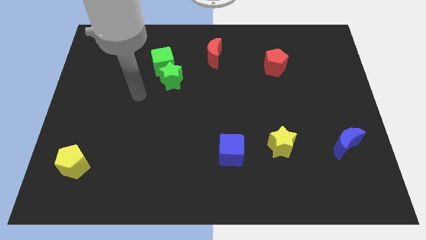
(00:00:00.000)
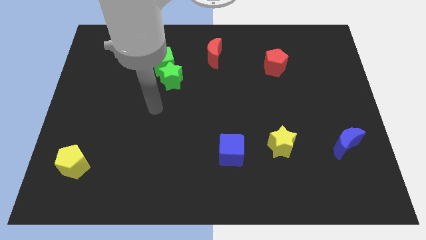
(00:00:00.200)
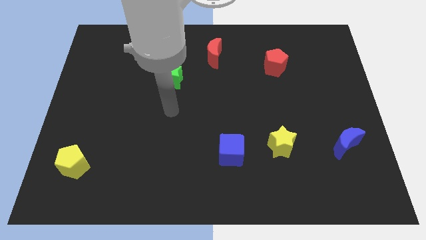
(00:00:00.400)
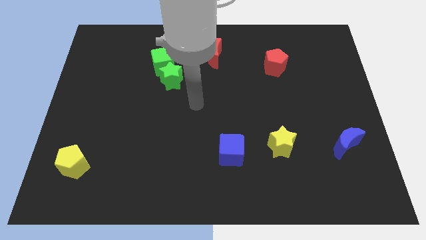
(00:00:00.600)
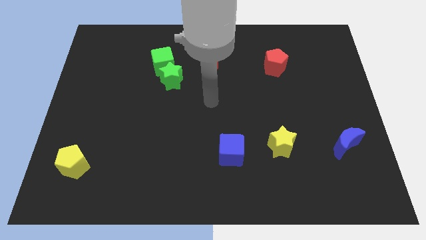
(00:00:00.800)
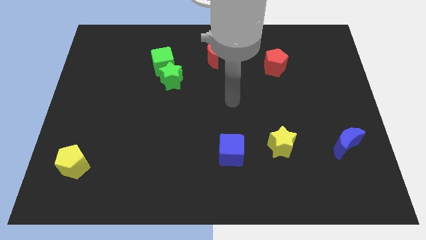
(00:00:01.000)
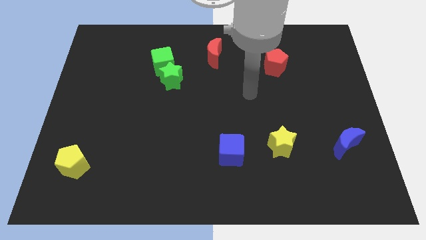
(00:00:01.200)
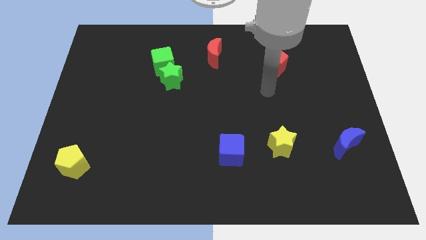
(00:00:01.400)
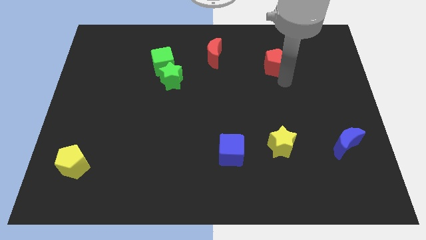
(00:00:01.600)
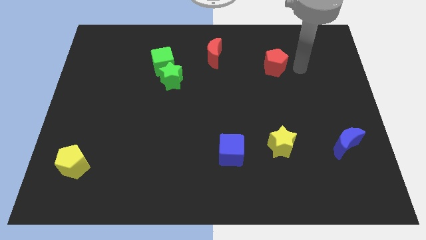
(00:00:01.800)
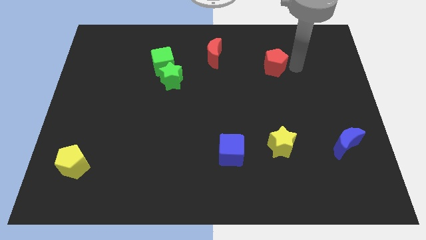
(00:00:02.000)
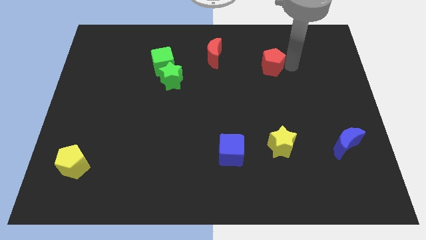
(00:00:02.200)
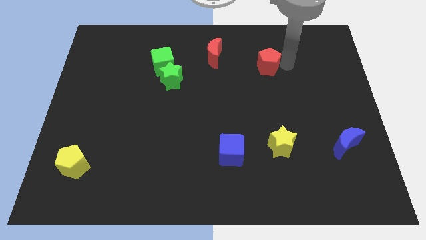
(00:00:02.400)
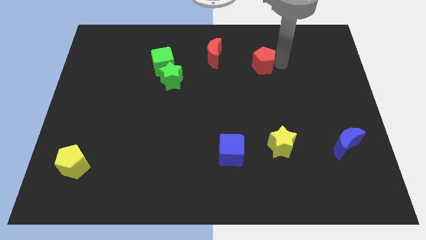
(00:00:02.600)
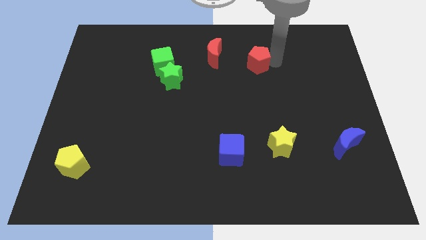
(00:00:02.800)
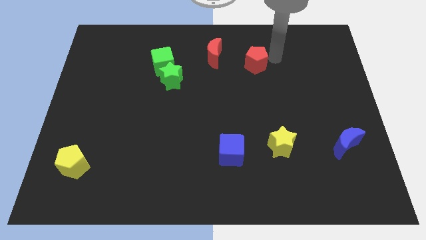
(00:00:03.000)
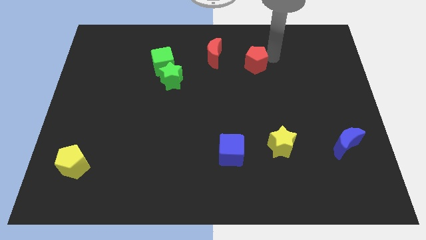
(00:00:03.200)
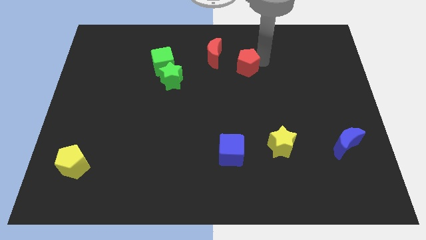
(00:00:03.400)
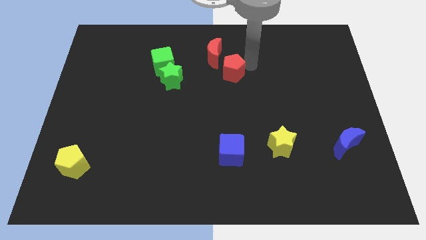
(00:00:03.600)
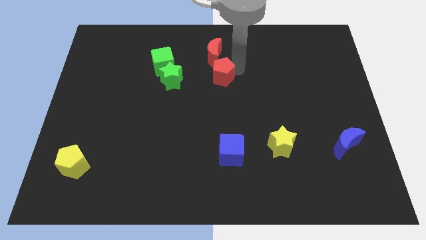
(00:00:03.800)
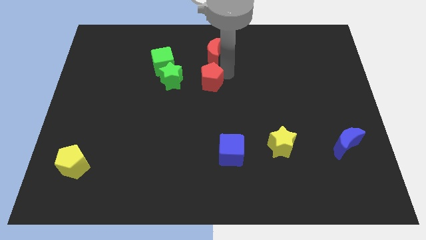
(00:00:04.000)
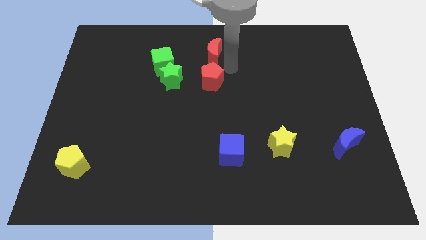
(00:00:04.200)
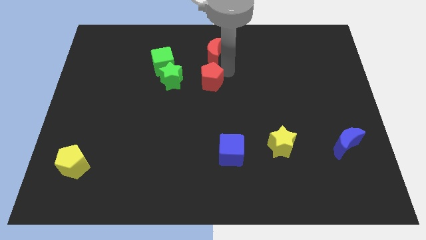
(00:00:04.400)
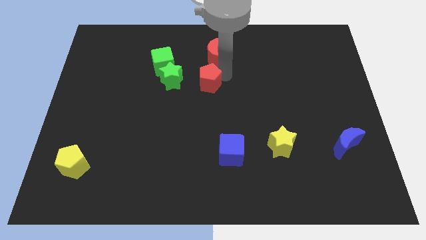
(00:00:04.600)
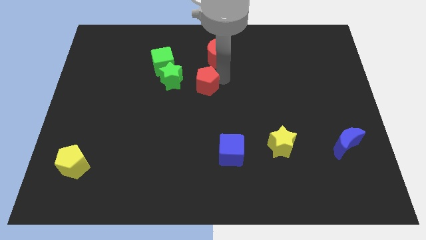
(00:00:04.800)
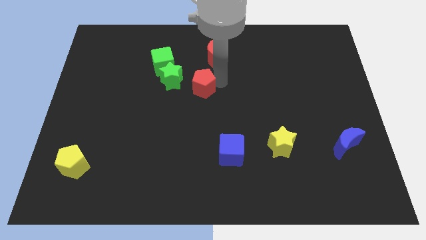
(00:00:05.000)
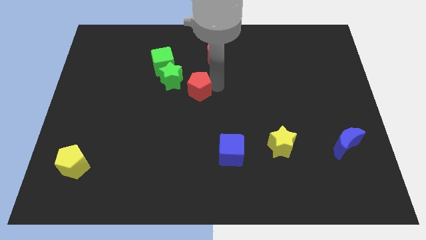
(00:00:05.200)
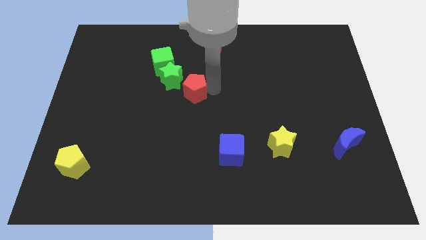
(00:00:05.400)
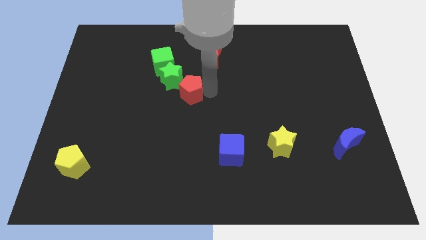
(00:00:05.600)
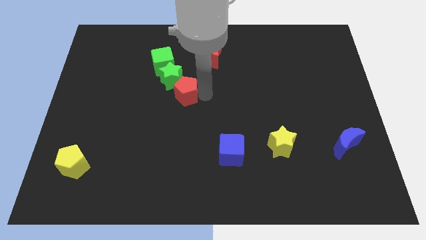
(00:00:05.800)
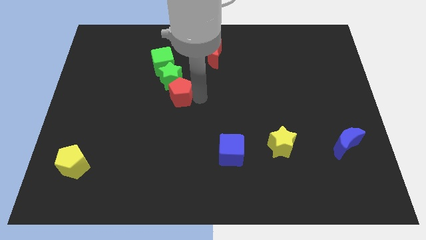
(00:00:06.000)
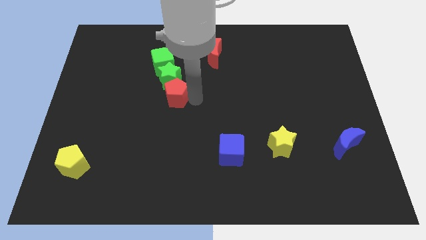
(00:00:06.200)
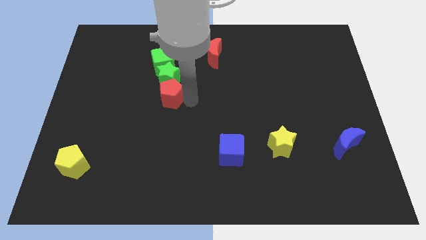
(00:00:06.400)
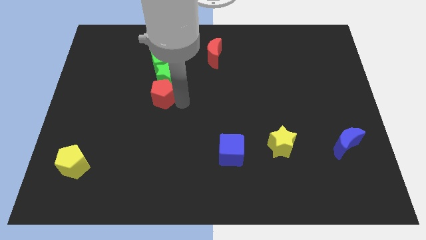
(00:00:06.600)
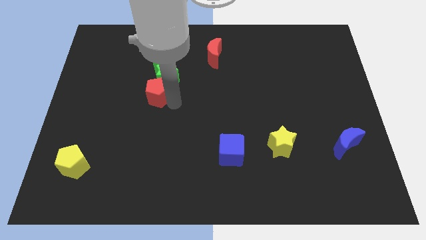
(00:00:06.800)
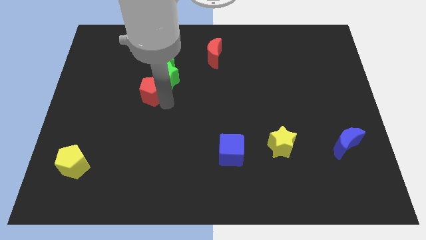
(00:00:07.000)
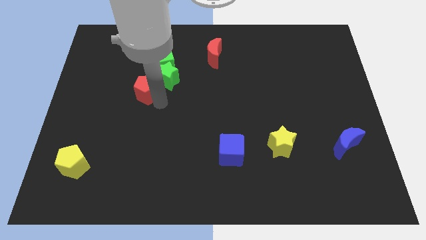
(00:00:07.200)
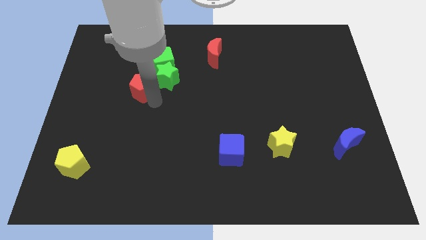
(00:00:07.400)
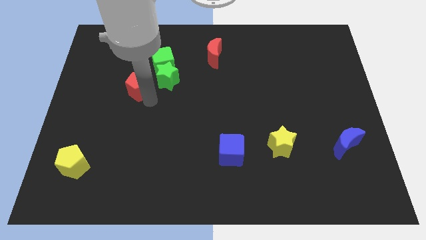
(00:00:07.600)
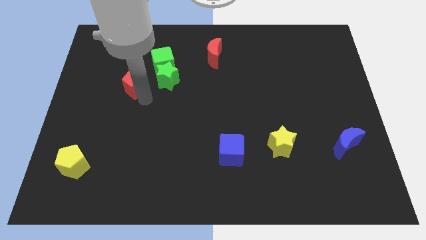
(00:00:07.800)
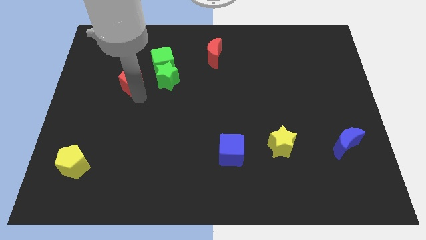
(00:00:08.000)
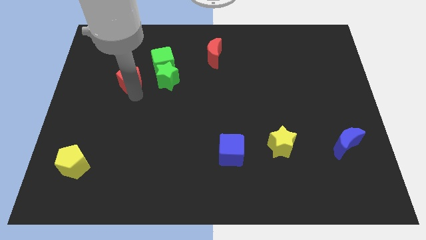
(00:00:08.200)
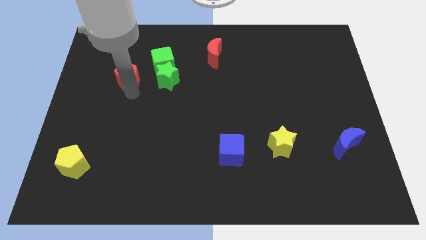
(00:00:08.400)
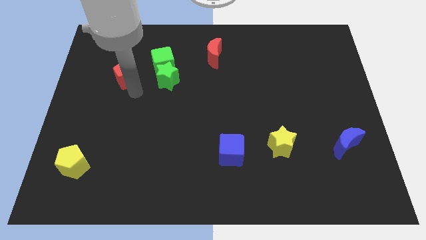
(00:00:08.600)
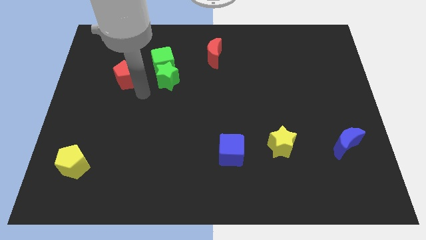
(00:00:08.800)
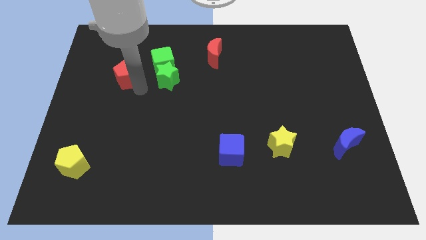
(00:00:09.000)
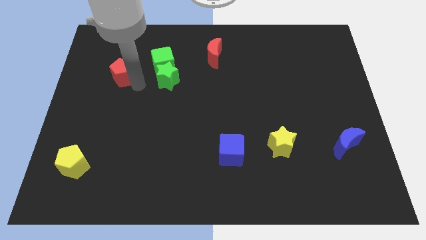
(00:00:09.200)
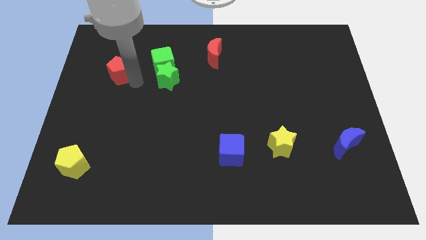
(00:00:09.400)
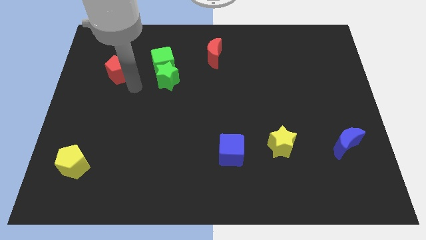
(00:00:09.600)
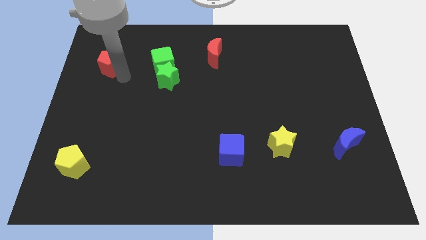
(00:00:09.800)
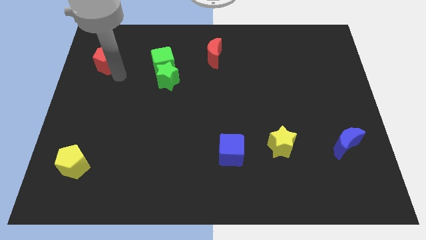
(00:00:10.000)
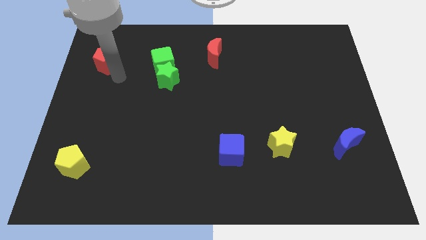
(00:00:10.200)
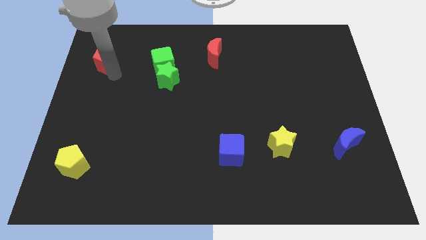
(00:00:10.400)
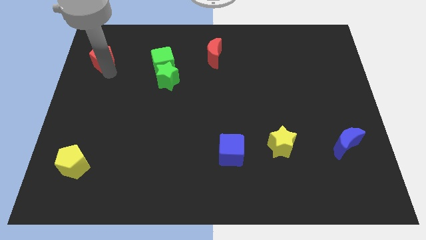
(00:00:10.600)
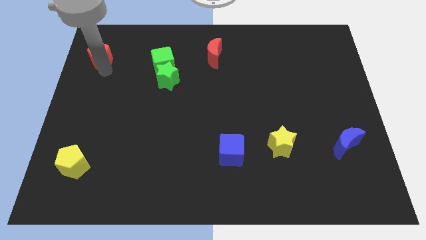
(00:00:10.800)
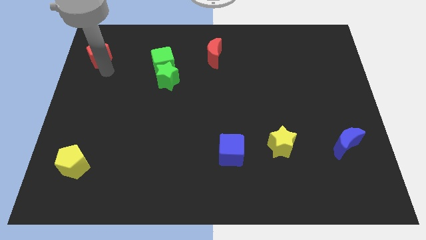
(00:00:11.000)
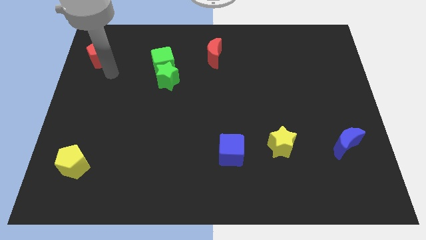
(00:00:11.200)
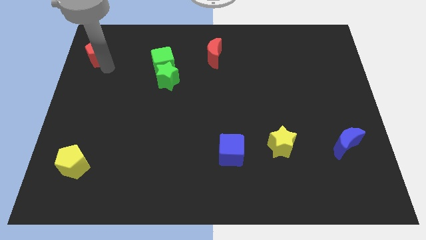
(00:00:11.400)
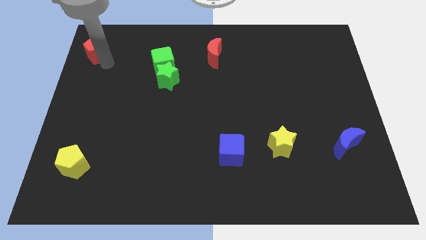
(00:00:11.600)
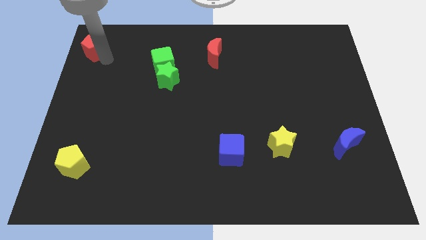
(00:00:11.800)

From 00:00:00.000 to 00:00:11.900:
move the red pentagon to the top left of the board
